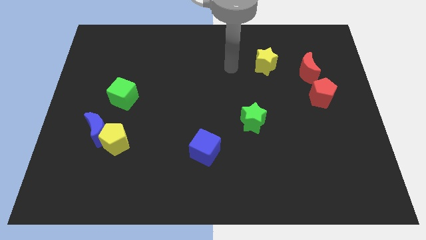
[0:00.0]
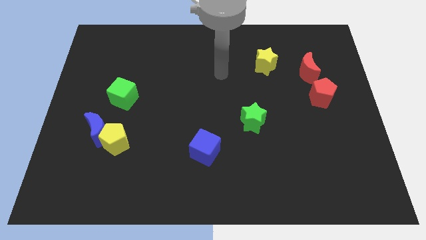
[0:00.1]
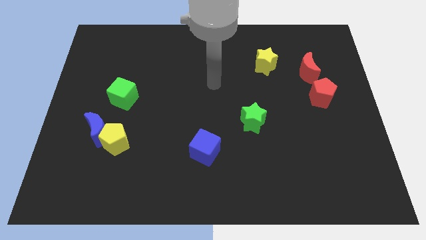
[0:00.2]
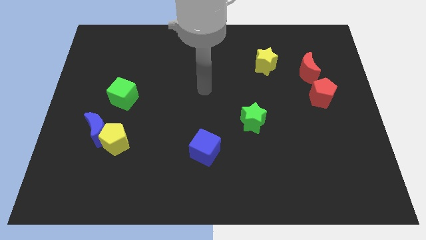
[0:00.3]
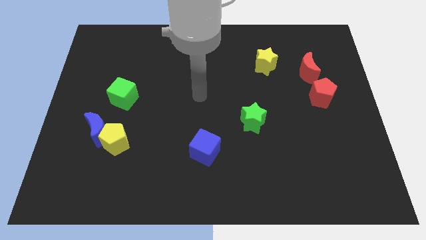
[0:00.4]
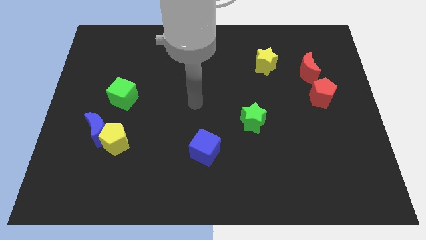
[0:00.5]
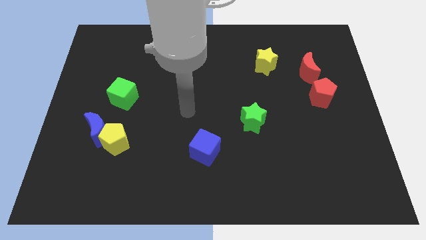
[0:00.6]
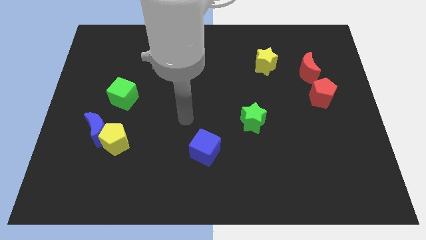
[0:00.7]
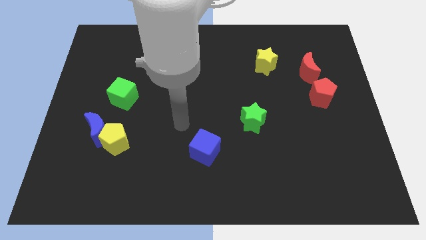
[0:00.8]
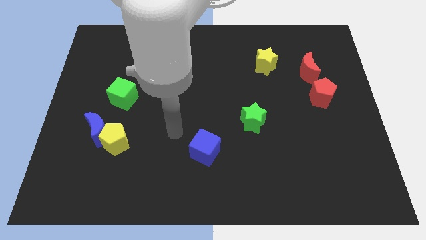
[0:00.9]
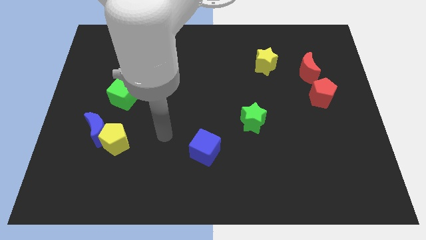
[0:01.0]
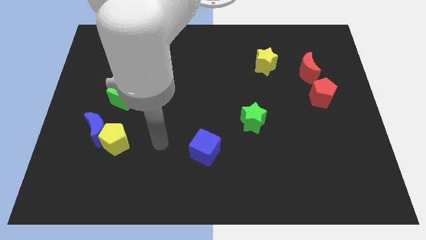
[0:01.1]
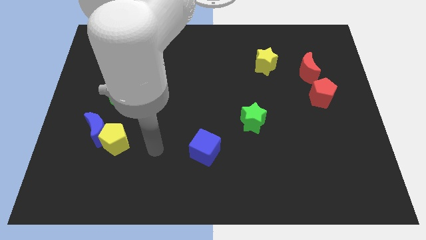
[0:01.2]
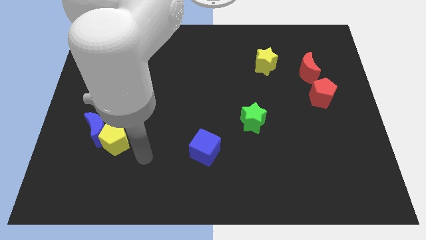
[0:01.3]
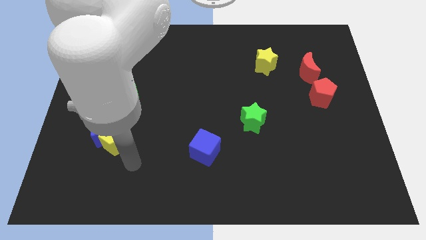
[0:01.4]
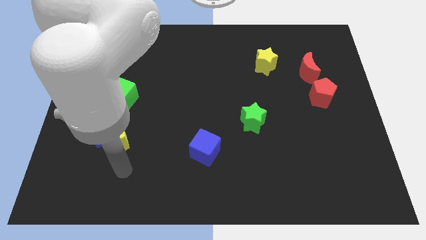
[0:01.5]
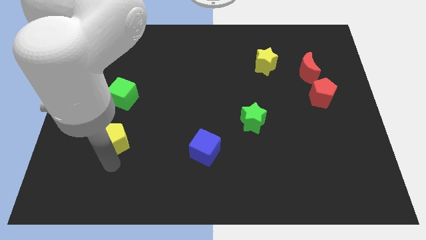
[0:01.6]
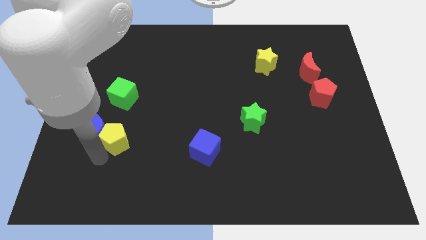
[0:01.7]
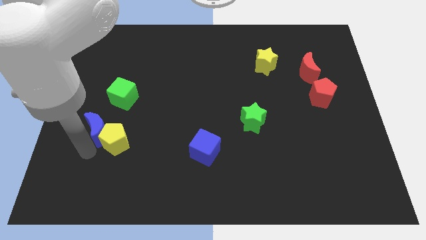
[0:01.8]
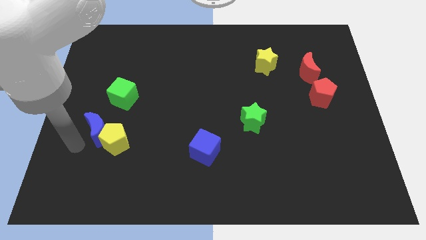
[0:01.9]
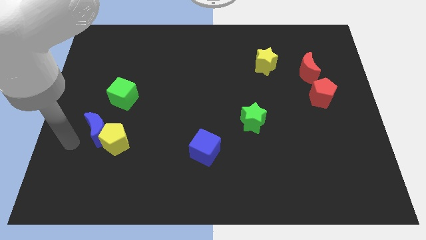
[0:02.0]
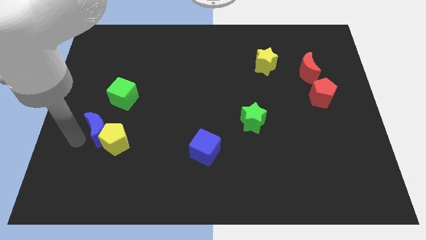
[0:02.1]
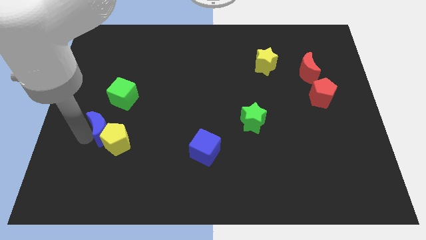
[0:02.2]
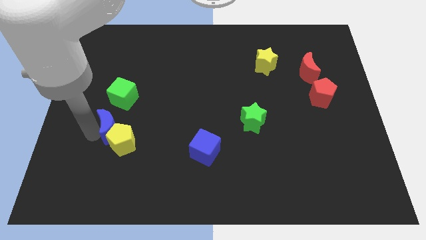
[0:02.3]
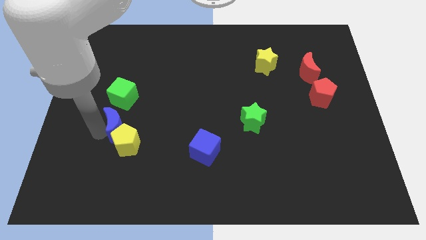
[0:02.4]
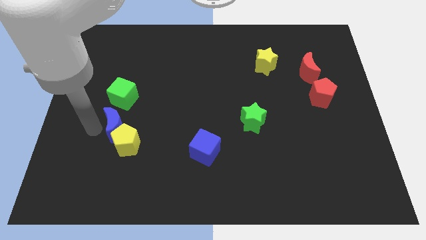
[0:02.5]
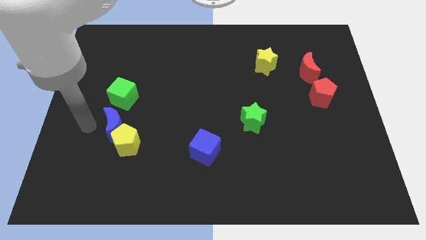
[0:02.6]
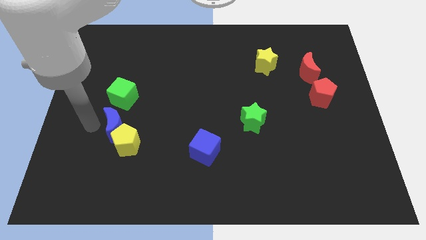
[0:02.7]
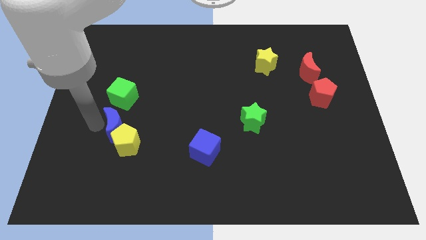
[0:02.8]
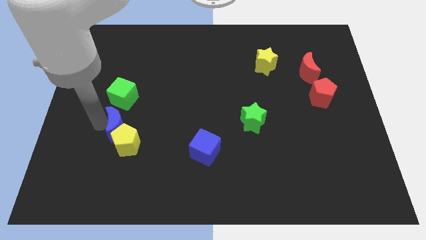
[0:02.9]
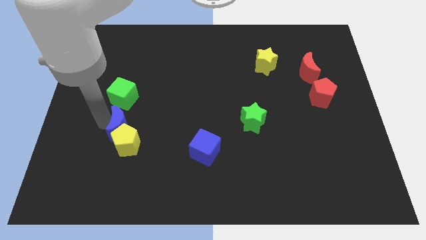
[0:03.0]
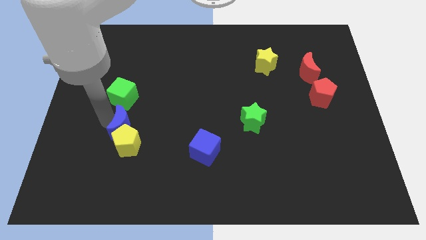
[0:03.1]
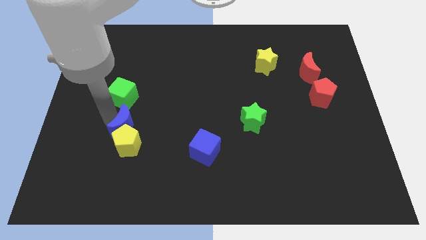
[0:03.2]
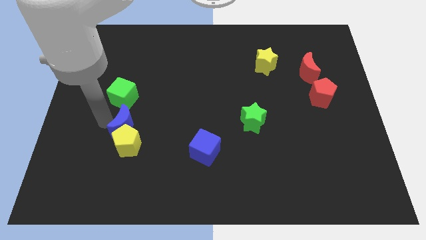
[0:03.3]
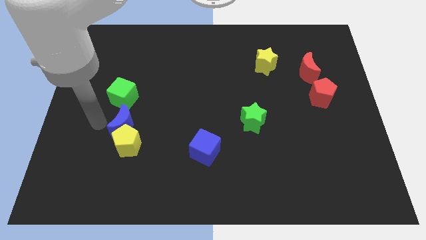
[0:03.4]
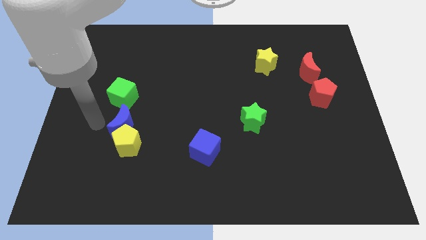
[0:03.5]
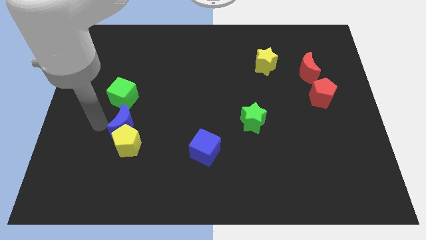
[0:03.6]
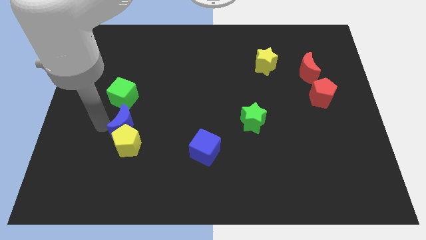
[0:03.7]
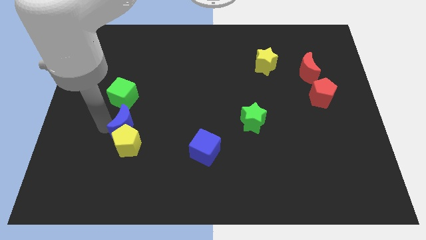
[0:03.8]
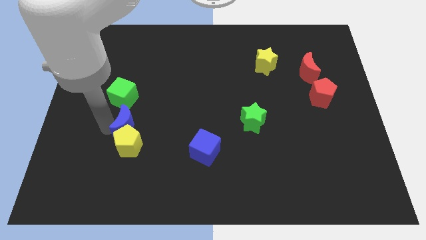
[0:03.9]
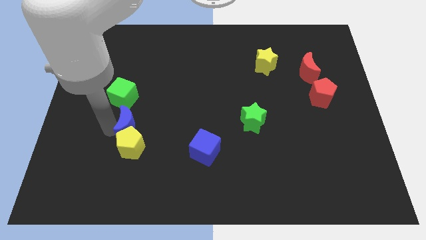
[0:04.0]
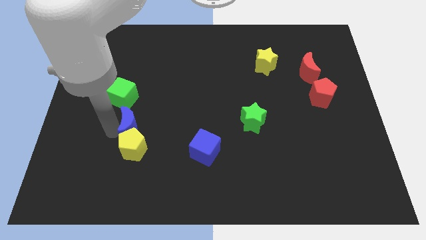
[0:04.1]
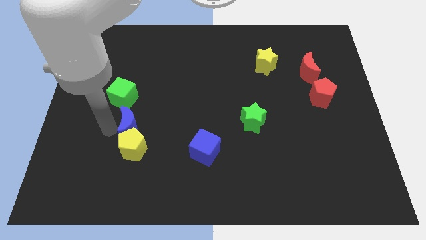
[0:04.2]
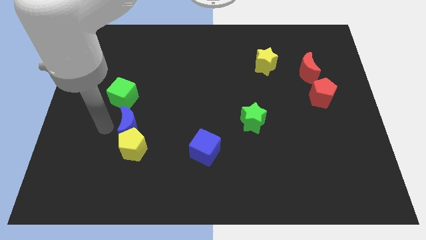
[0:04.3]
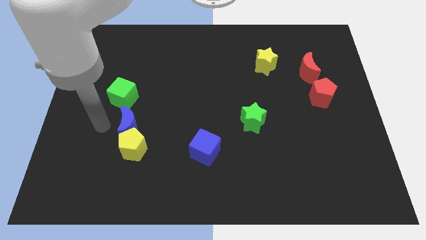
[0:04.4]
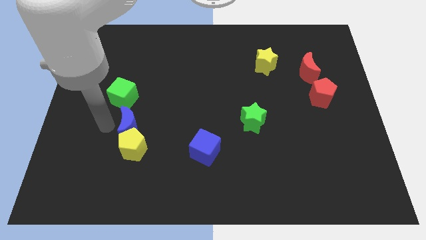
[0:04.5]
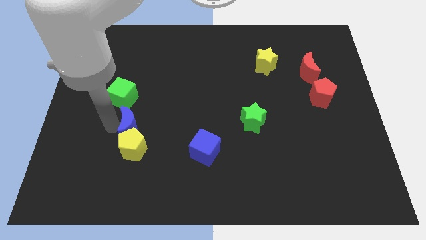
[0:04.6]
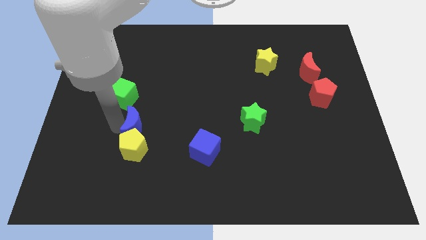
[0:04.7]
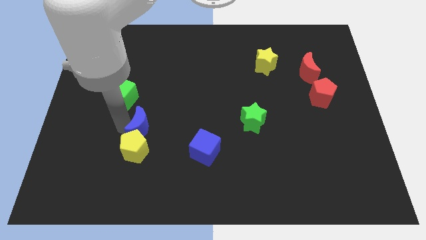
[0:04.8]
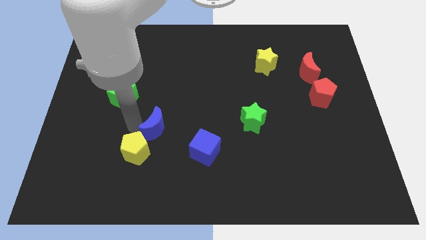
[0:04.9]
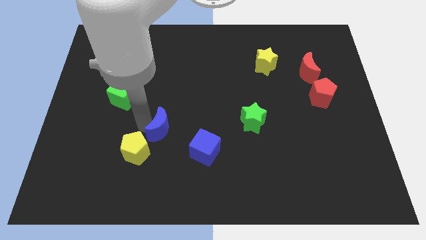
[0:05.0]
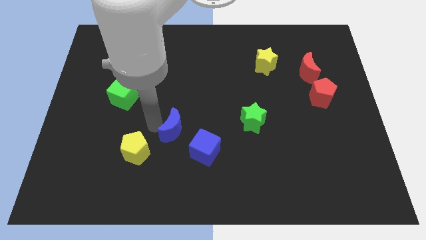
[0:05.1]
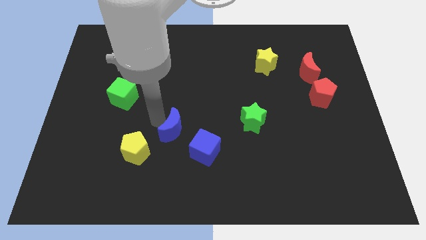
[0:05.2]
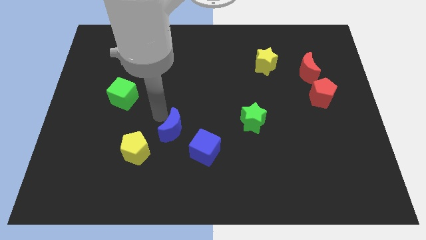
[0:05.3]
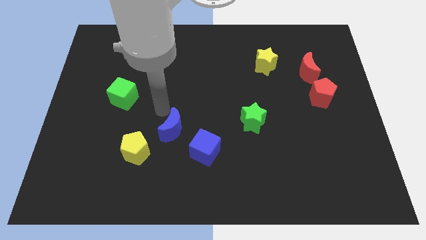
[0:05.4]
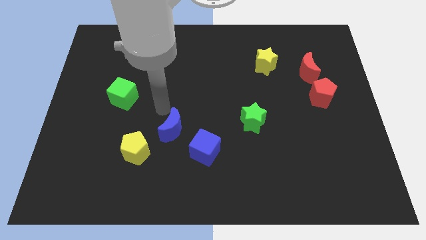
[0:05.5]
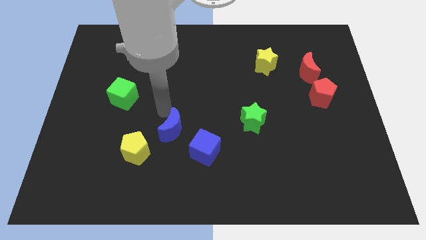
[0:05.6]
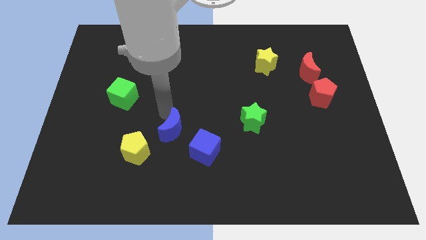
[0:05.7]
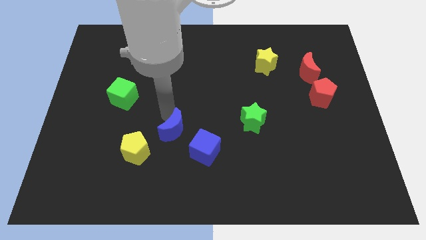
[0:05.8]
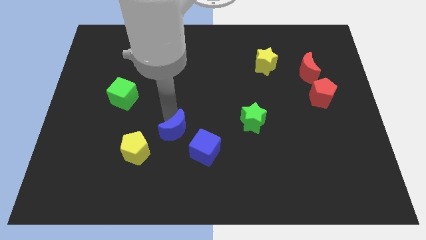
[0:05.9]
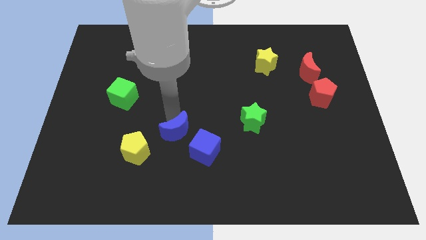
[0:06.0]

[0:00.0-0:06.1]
move the blue moon right of the yellow pentagon

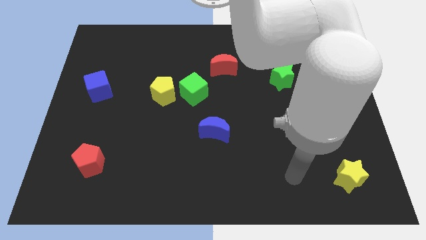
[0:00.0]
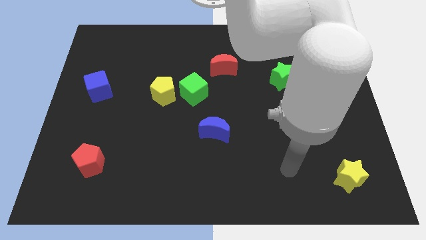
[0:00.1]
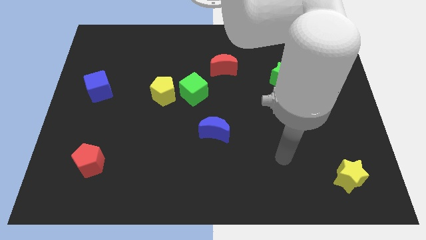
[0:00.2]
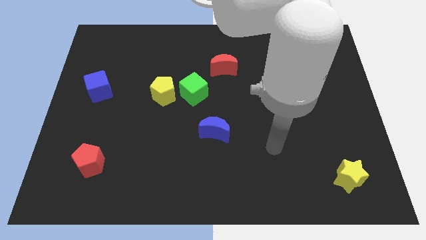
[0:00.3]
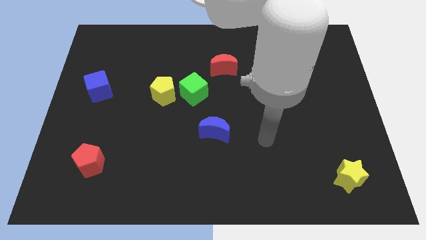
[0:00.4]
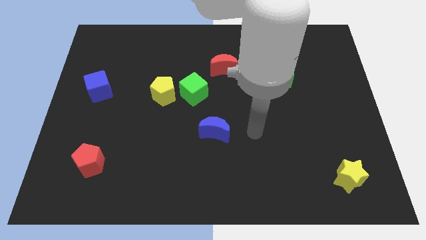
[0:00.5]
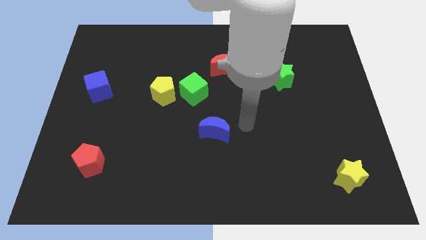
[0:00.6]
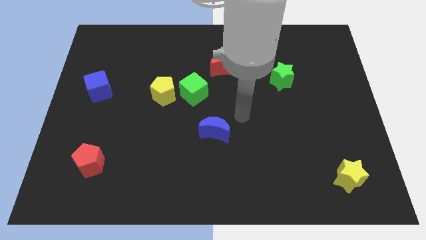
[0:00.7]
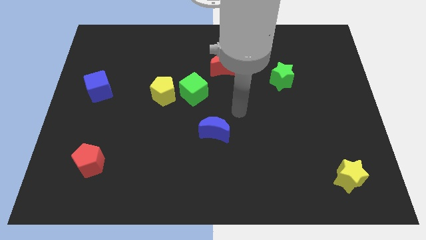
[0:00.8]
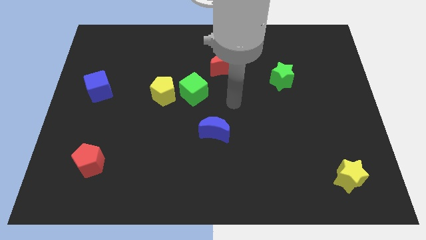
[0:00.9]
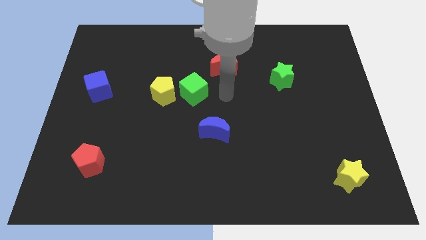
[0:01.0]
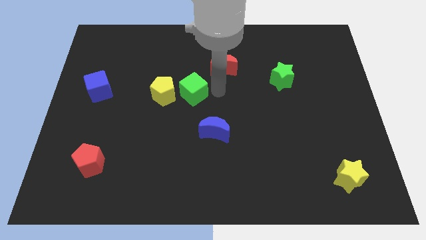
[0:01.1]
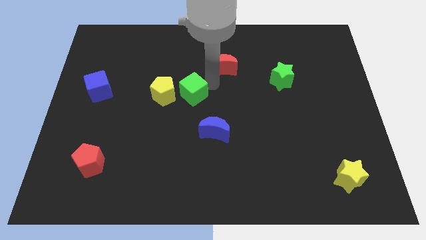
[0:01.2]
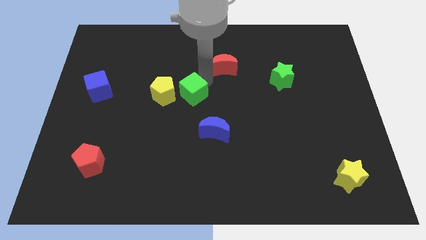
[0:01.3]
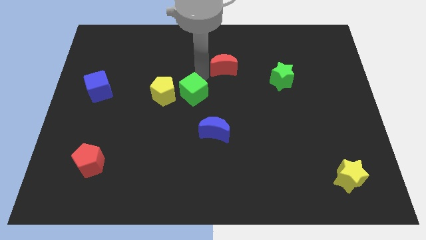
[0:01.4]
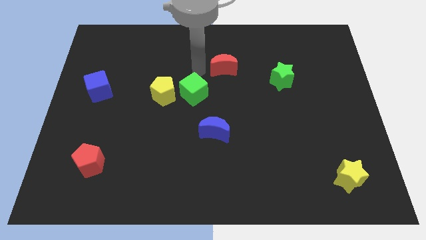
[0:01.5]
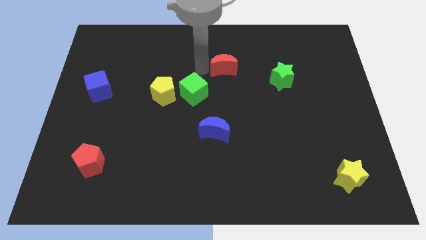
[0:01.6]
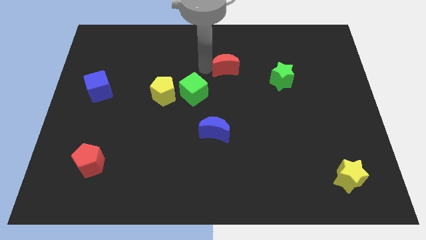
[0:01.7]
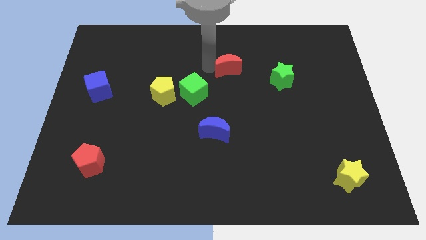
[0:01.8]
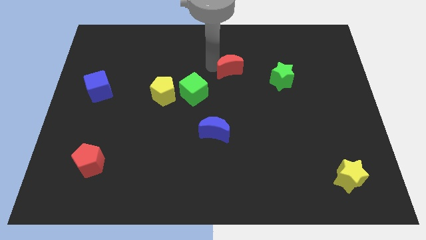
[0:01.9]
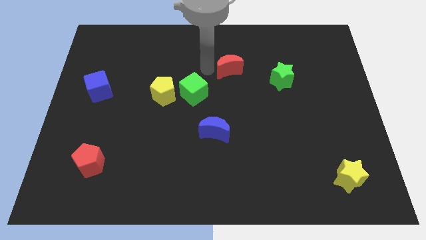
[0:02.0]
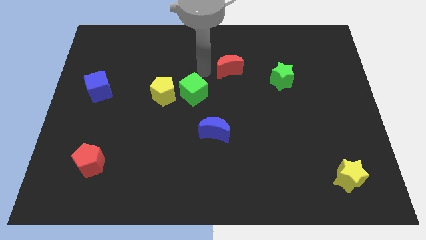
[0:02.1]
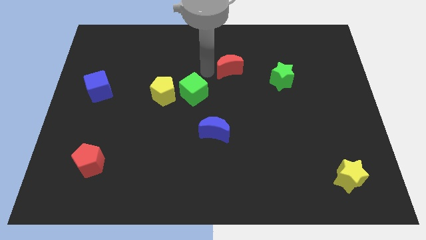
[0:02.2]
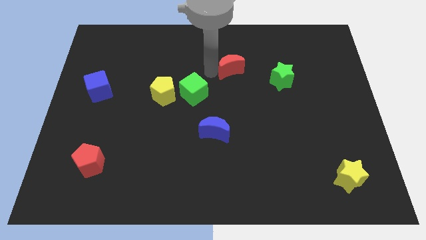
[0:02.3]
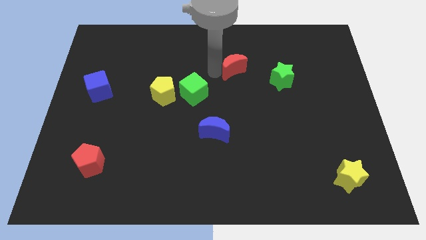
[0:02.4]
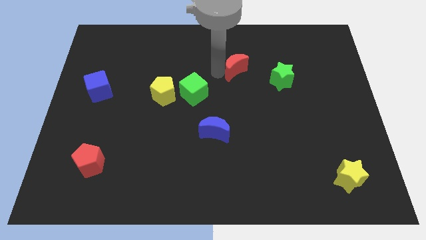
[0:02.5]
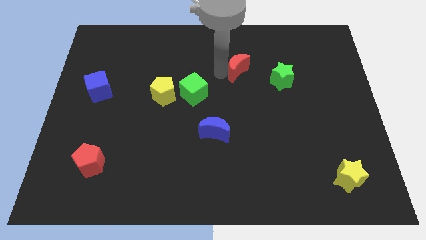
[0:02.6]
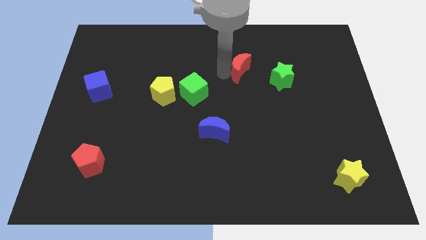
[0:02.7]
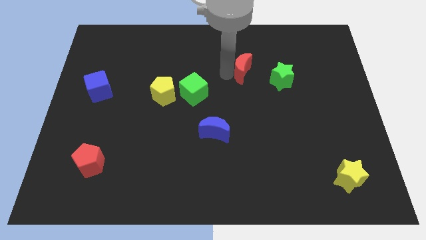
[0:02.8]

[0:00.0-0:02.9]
slide the red moon to the top left of the green star
